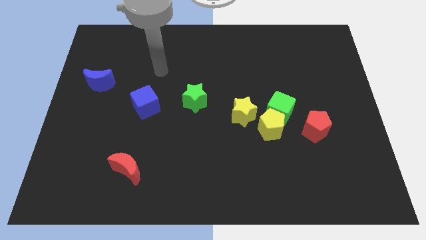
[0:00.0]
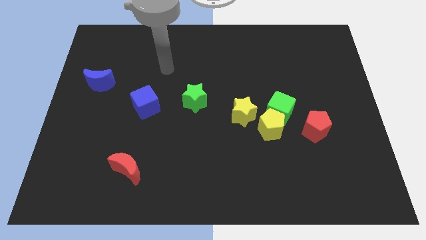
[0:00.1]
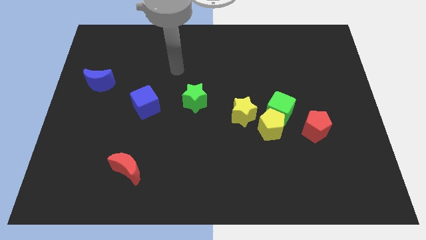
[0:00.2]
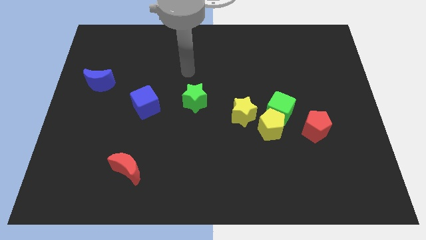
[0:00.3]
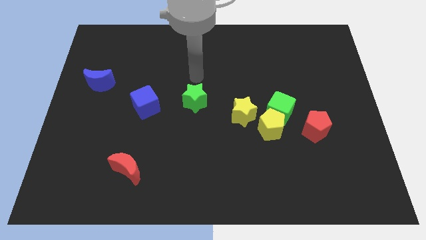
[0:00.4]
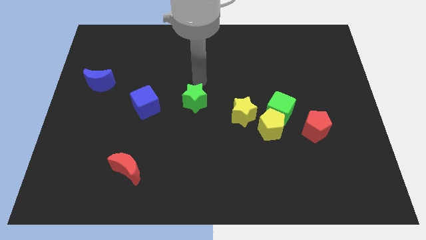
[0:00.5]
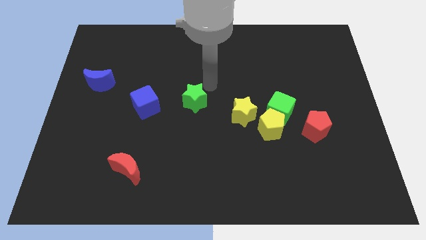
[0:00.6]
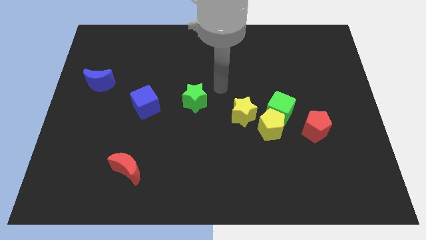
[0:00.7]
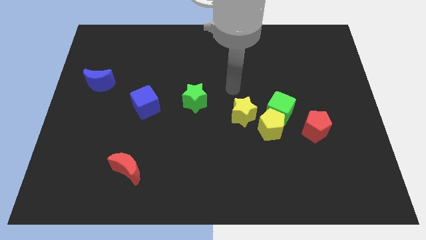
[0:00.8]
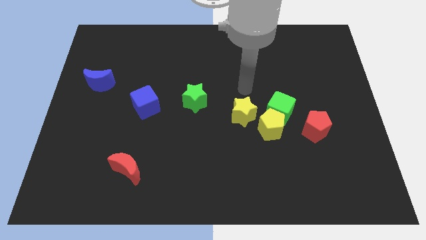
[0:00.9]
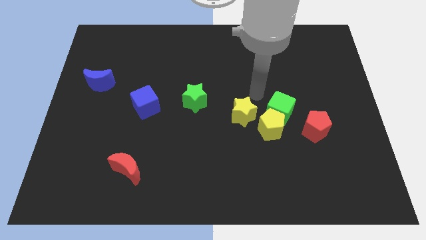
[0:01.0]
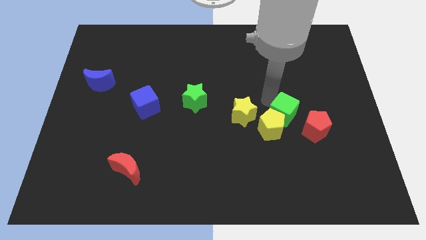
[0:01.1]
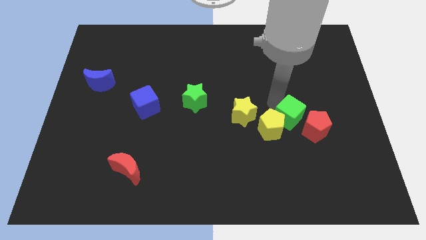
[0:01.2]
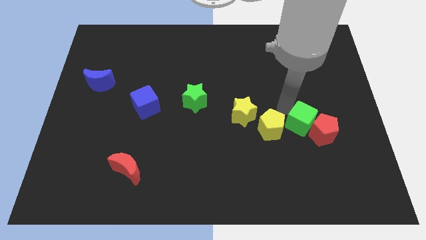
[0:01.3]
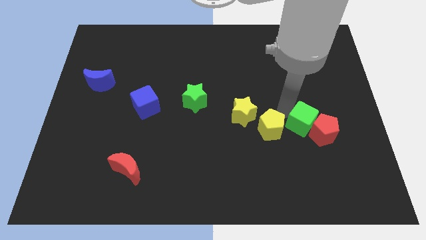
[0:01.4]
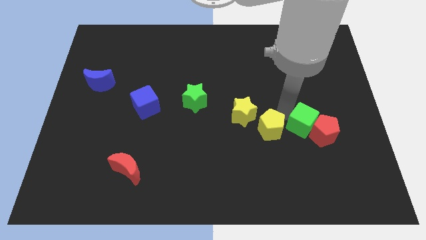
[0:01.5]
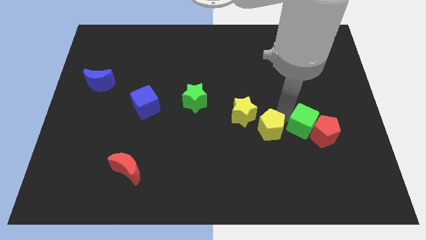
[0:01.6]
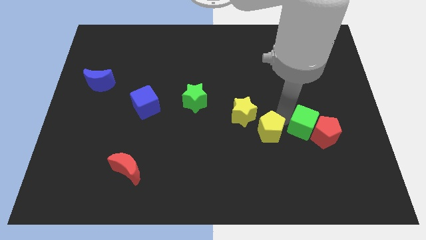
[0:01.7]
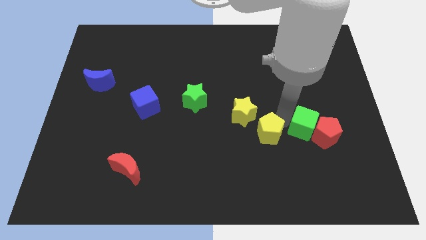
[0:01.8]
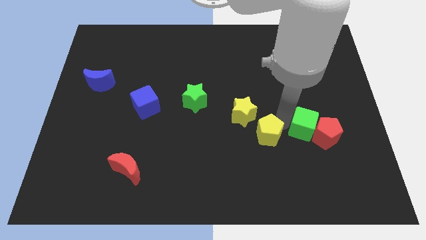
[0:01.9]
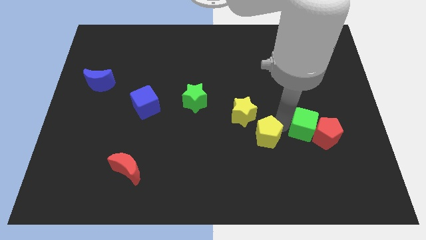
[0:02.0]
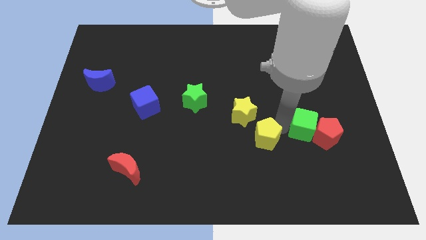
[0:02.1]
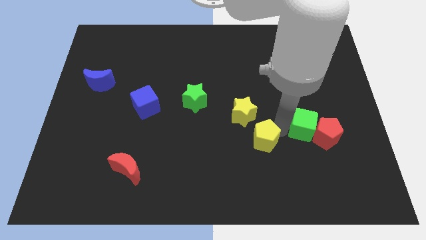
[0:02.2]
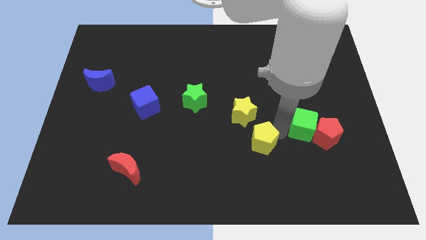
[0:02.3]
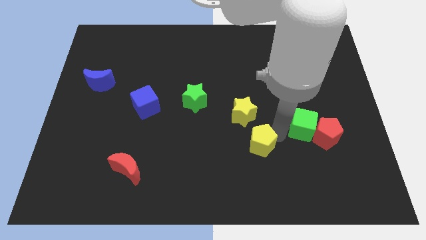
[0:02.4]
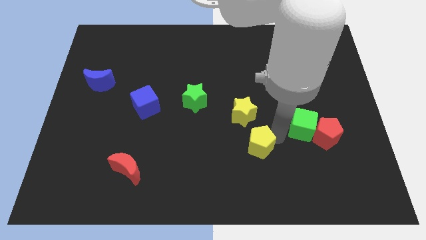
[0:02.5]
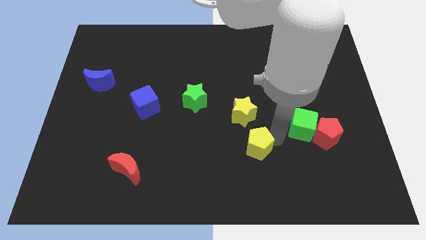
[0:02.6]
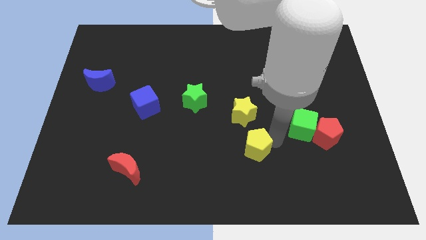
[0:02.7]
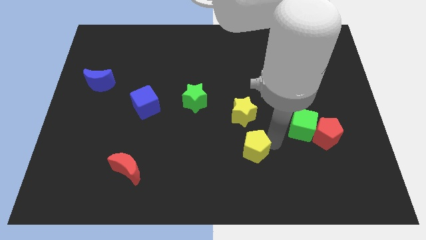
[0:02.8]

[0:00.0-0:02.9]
separate the yellow pentagon from the green cube, yellow star, and red pentagon

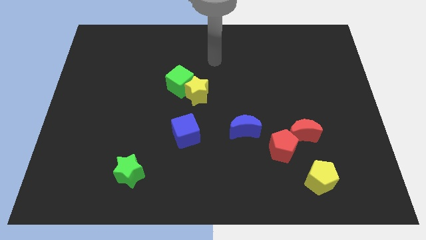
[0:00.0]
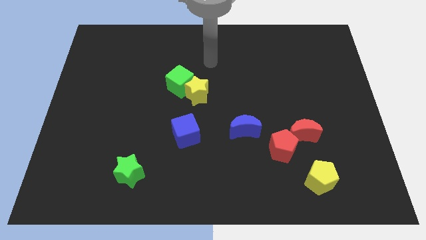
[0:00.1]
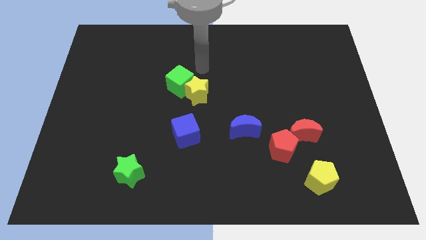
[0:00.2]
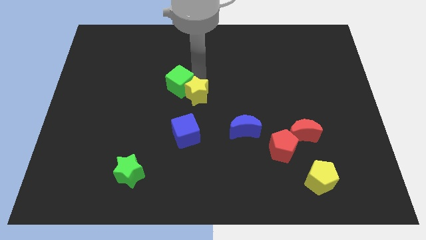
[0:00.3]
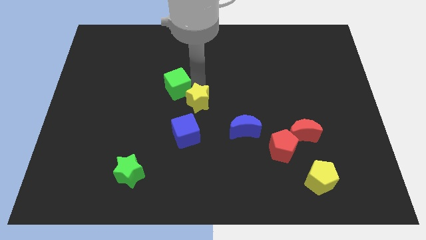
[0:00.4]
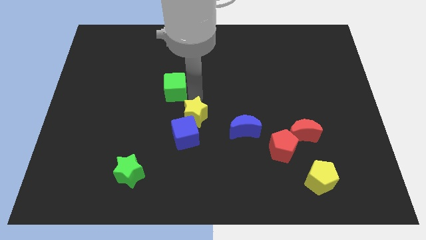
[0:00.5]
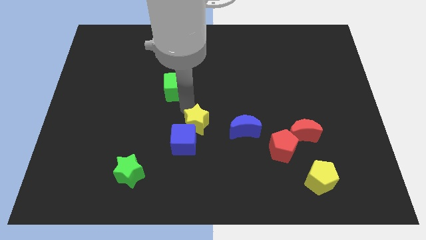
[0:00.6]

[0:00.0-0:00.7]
pull the green cube apart from the yellow star

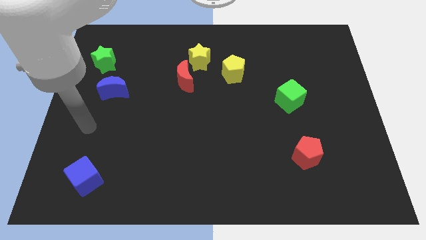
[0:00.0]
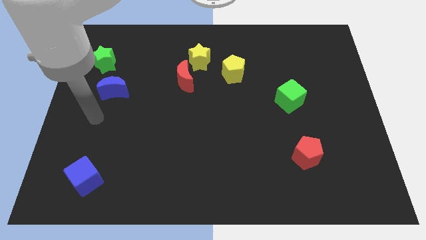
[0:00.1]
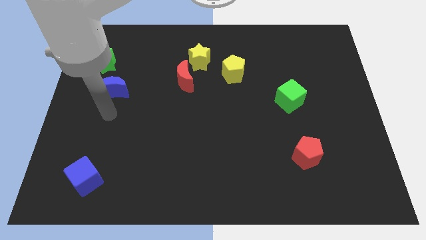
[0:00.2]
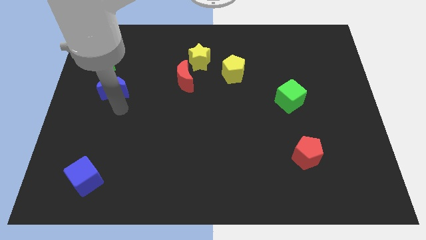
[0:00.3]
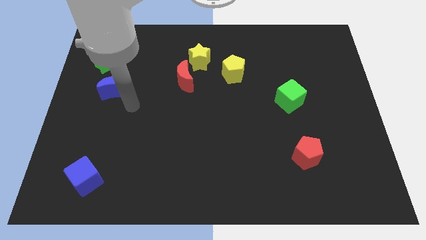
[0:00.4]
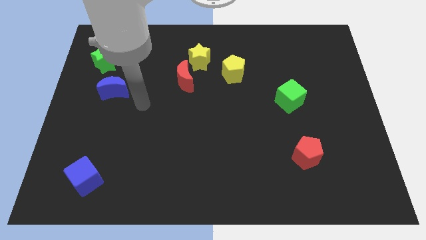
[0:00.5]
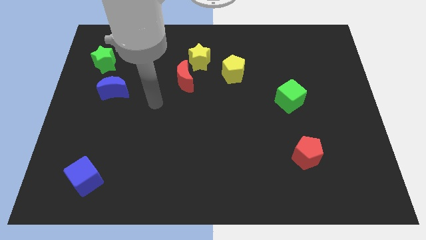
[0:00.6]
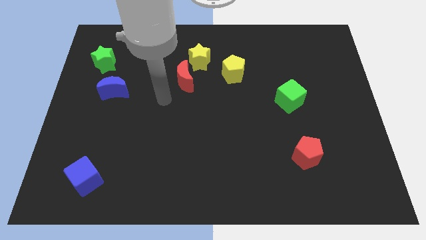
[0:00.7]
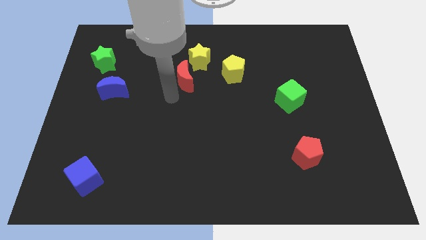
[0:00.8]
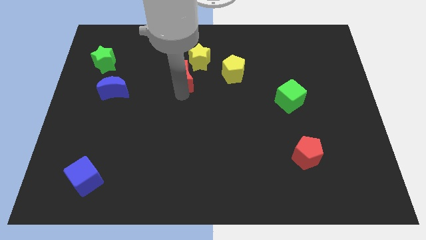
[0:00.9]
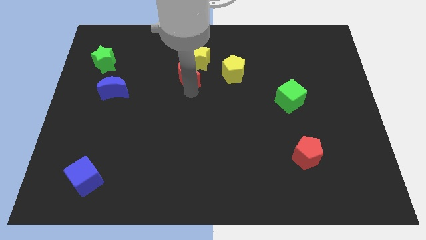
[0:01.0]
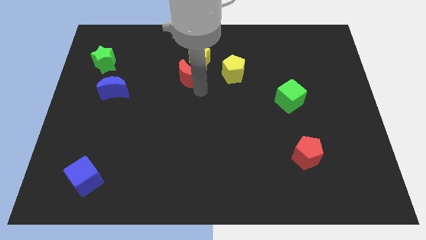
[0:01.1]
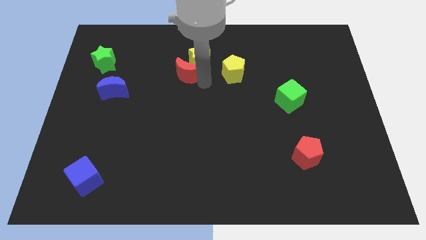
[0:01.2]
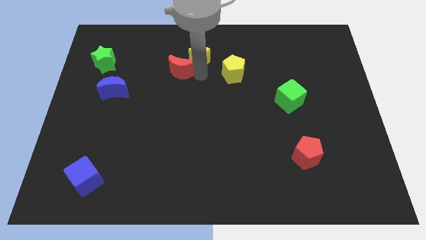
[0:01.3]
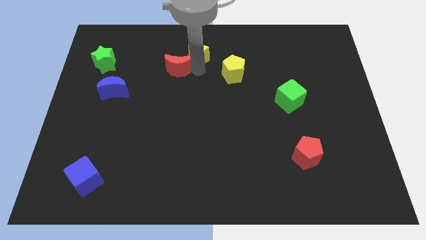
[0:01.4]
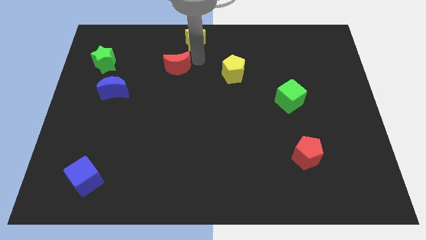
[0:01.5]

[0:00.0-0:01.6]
pull the red moon apart from the yellow star

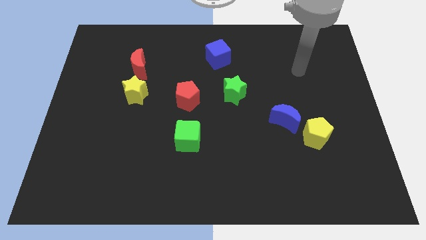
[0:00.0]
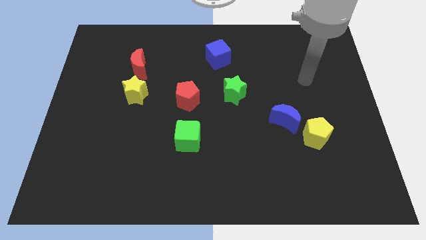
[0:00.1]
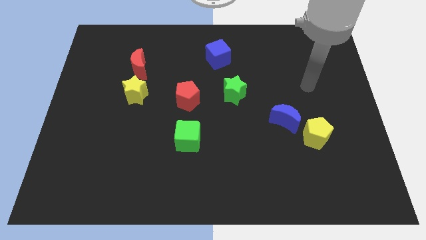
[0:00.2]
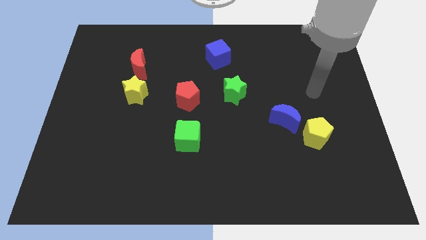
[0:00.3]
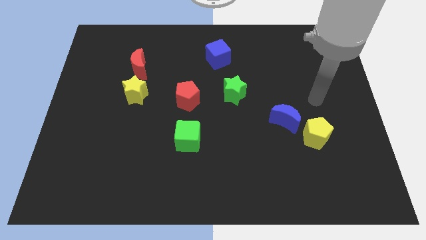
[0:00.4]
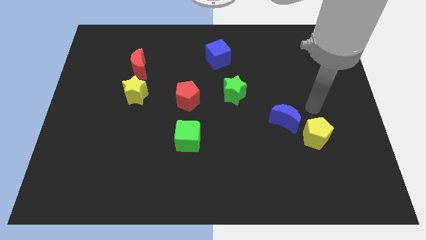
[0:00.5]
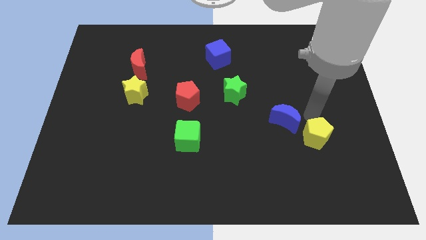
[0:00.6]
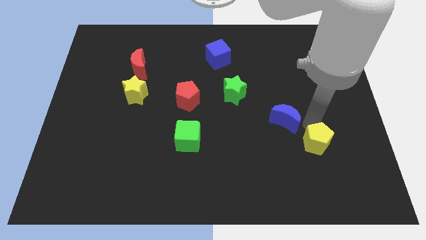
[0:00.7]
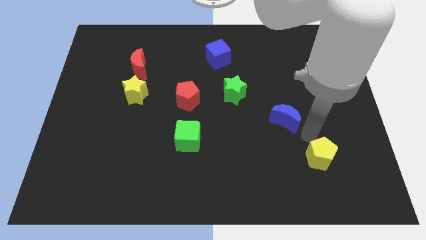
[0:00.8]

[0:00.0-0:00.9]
separate the blue moon from the yellow pentagon

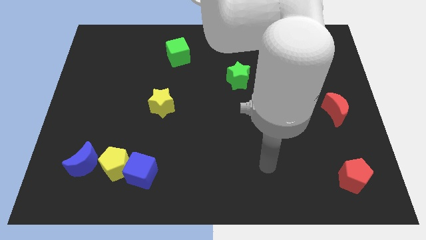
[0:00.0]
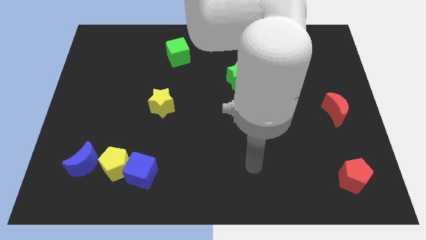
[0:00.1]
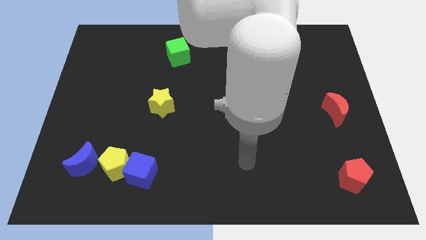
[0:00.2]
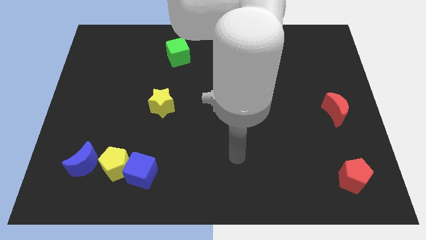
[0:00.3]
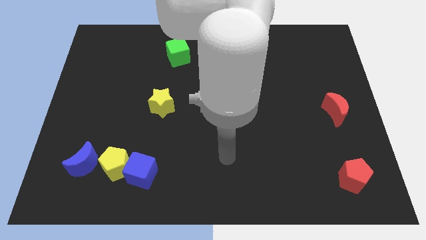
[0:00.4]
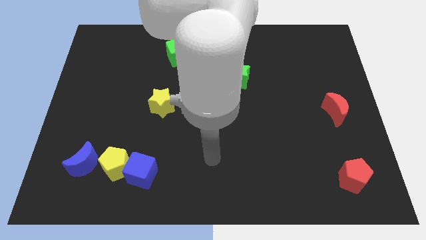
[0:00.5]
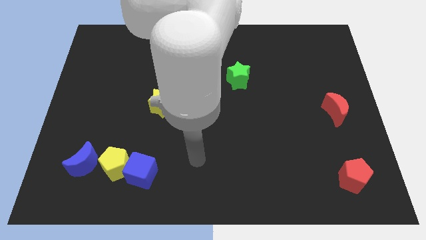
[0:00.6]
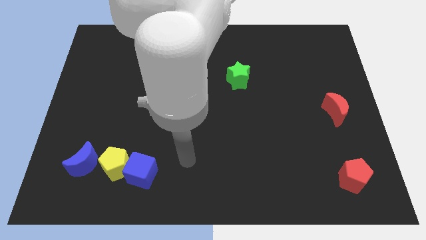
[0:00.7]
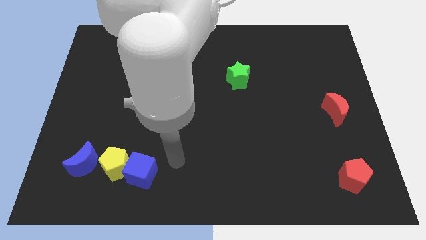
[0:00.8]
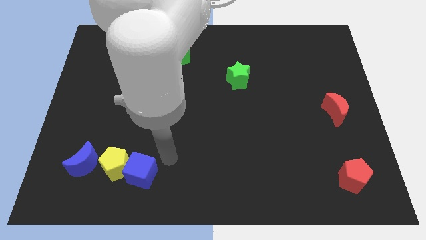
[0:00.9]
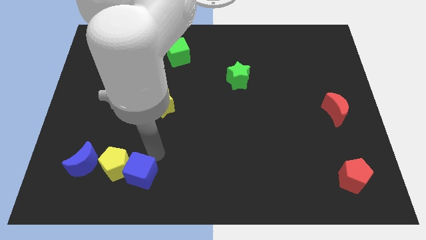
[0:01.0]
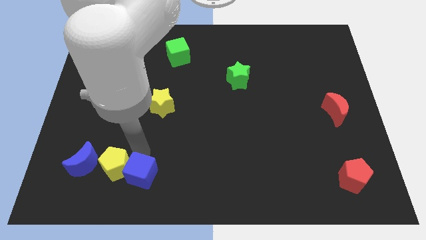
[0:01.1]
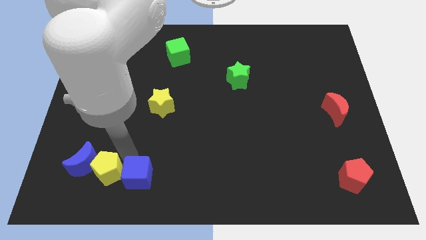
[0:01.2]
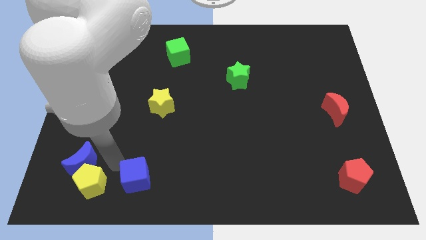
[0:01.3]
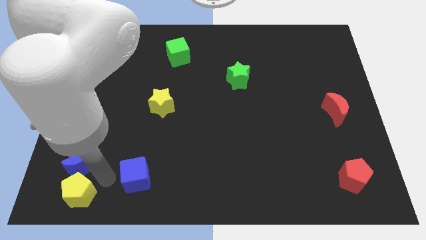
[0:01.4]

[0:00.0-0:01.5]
separate the blue cube from the yellow pentagon

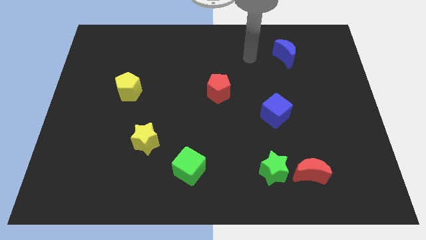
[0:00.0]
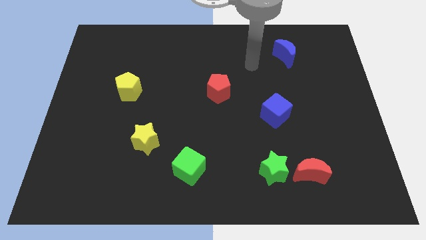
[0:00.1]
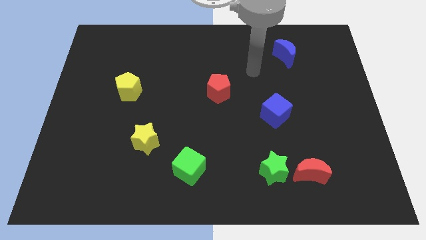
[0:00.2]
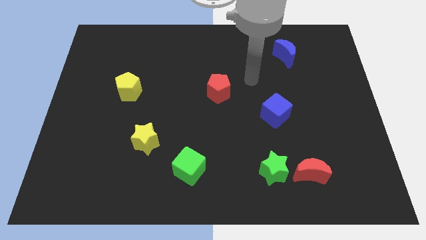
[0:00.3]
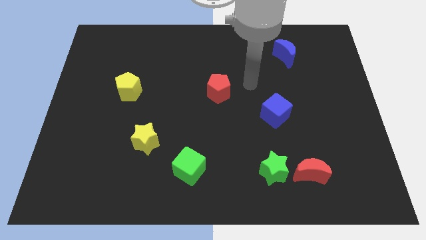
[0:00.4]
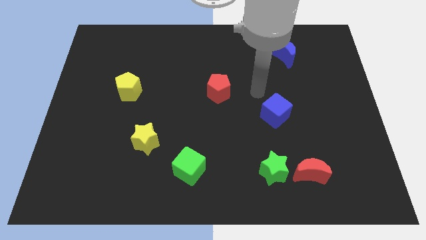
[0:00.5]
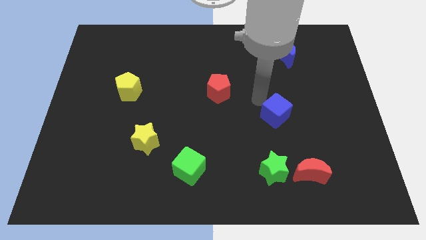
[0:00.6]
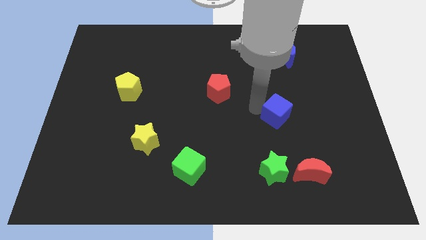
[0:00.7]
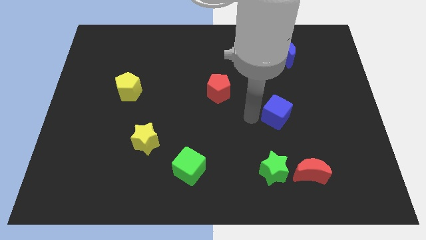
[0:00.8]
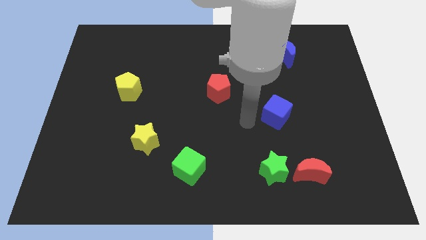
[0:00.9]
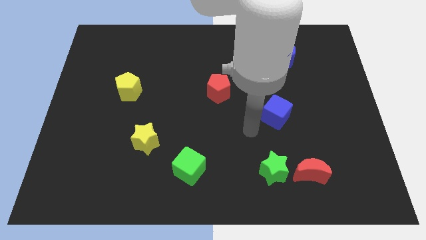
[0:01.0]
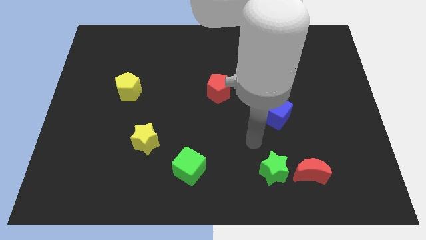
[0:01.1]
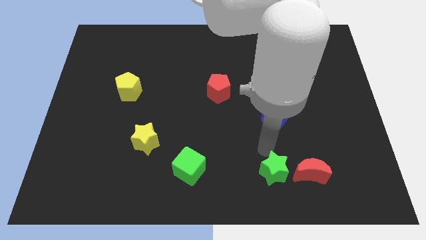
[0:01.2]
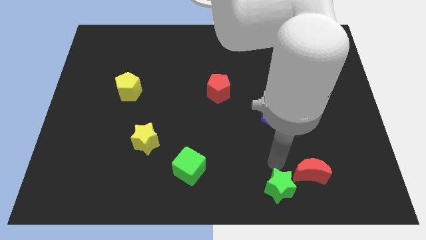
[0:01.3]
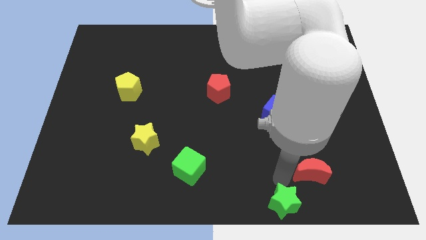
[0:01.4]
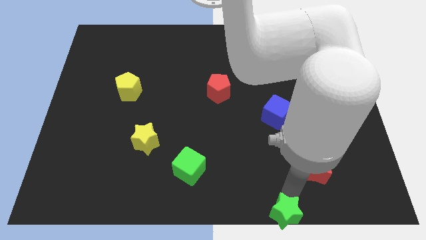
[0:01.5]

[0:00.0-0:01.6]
move the red moon away from the green star
